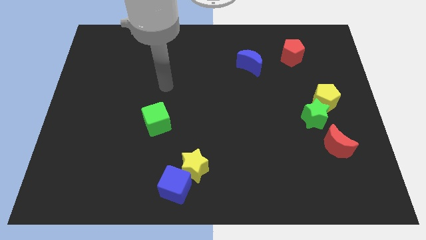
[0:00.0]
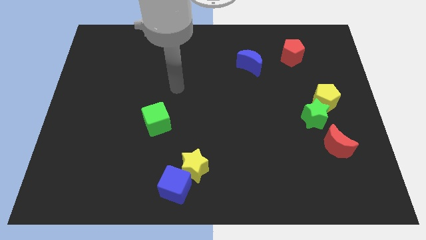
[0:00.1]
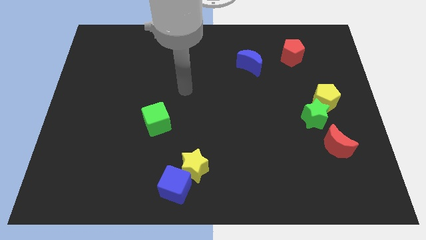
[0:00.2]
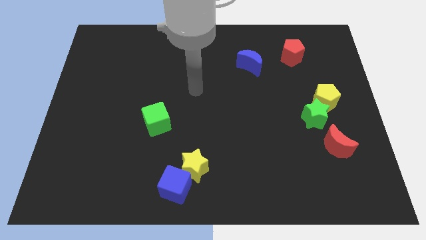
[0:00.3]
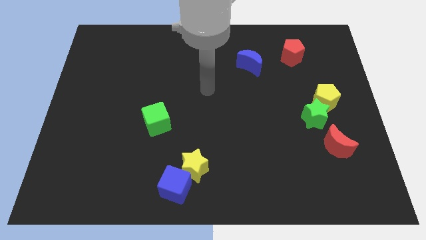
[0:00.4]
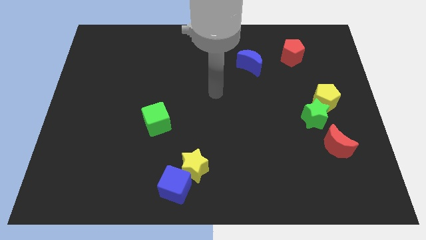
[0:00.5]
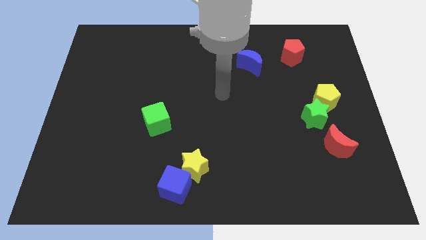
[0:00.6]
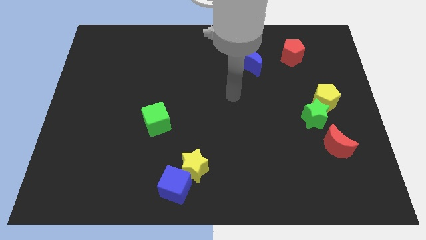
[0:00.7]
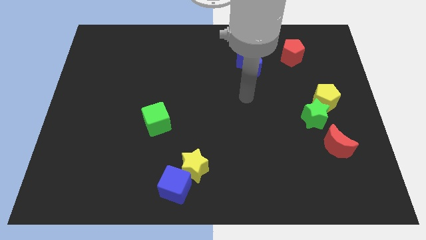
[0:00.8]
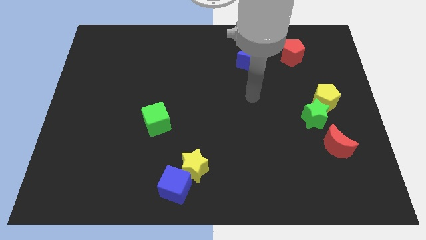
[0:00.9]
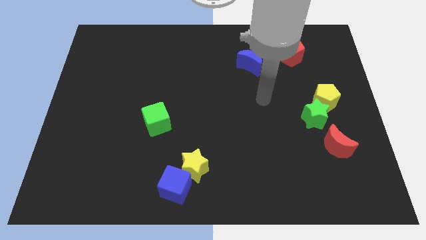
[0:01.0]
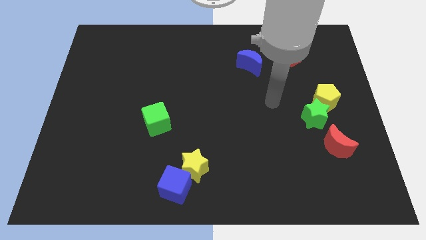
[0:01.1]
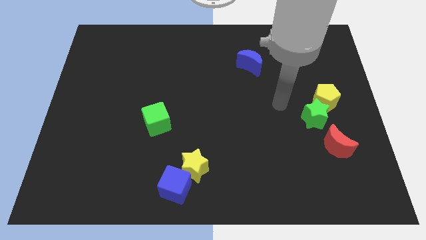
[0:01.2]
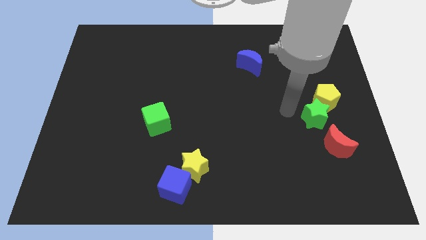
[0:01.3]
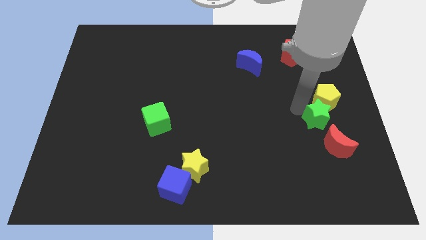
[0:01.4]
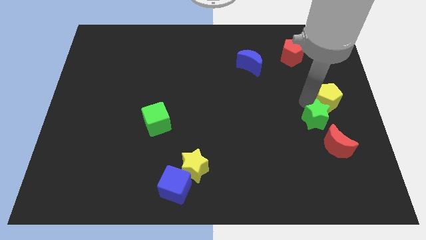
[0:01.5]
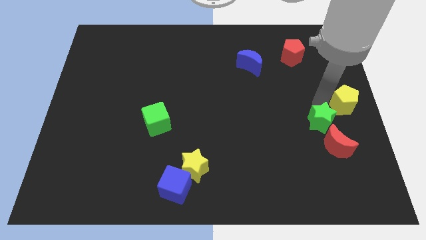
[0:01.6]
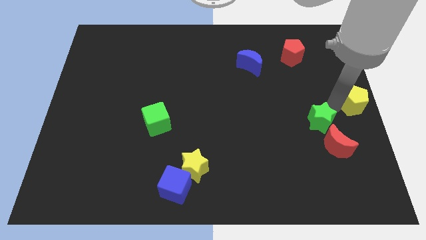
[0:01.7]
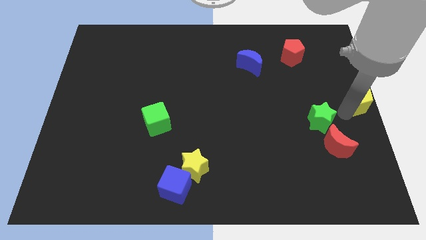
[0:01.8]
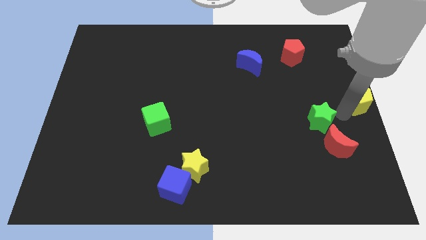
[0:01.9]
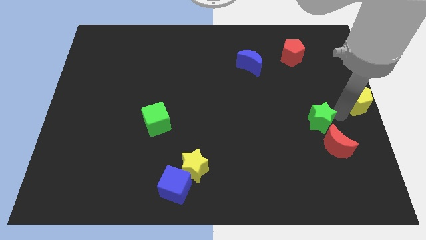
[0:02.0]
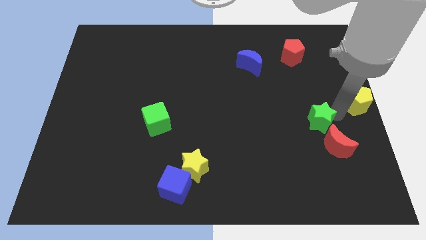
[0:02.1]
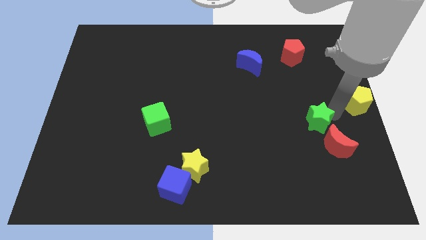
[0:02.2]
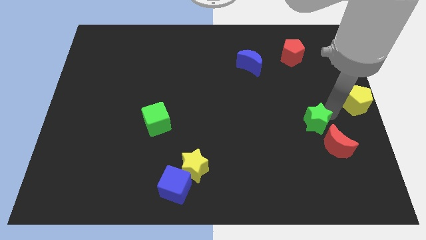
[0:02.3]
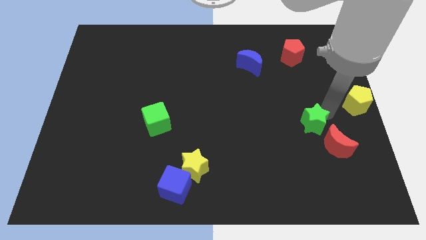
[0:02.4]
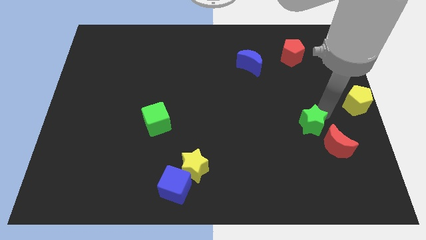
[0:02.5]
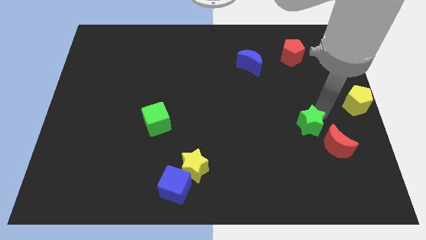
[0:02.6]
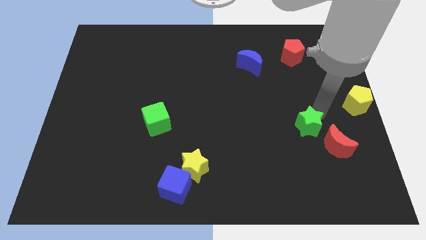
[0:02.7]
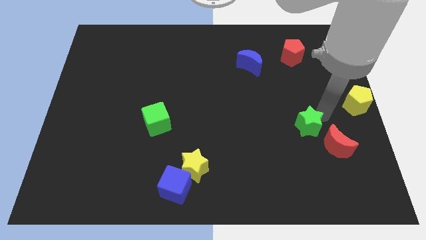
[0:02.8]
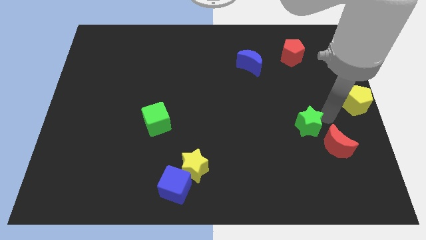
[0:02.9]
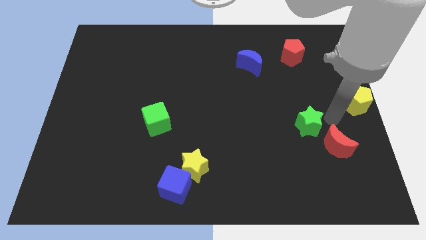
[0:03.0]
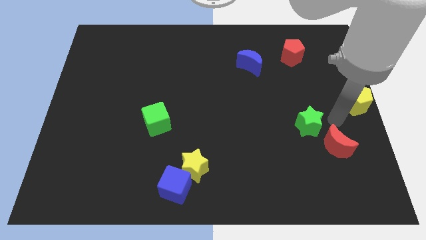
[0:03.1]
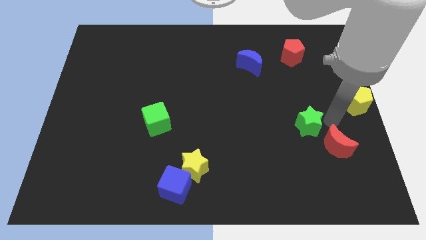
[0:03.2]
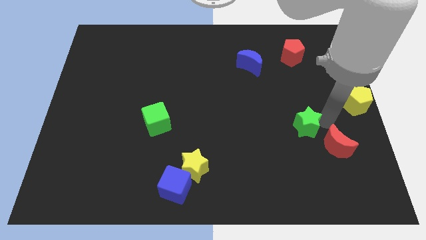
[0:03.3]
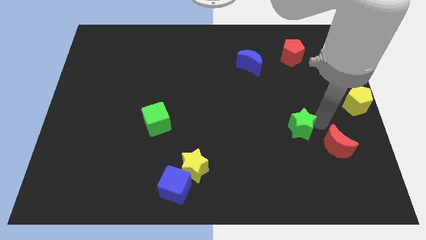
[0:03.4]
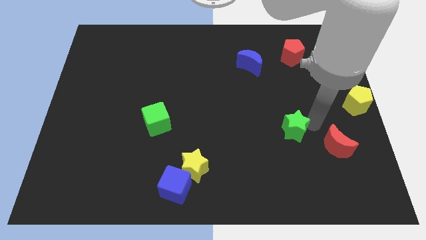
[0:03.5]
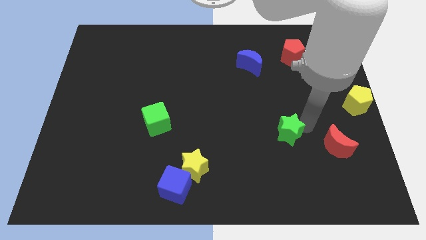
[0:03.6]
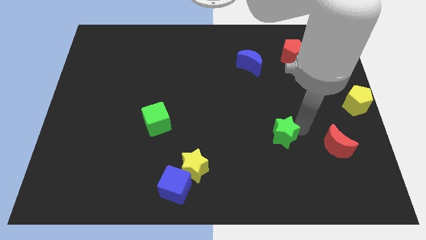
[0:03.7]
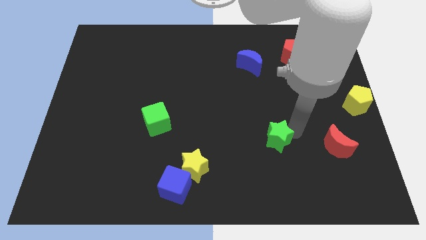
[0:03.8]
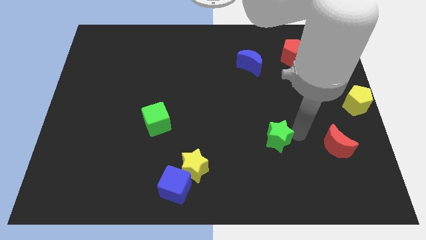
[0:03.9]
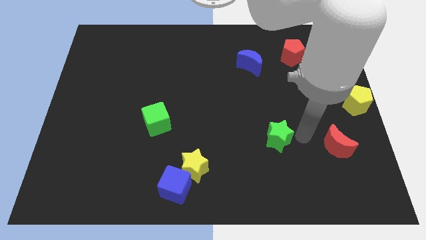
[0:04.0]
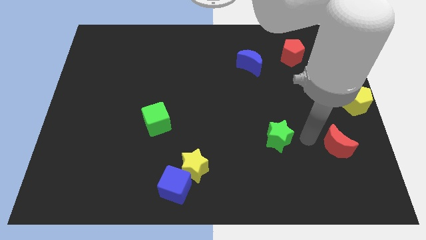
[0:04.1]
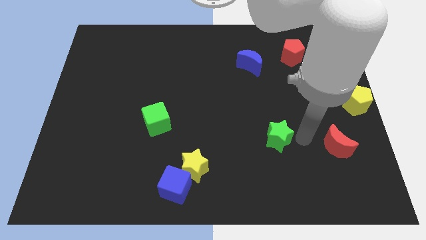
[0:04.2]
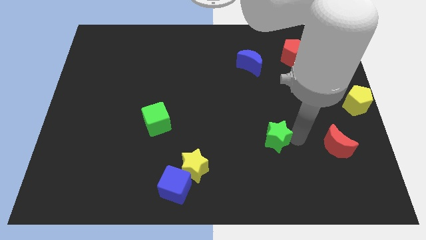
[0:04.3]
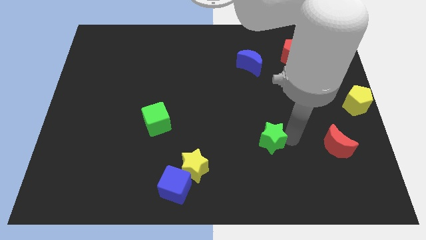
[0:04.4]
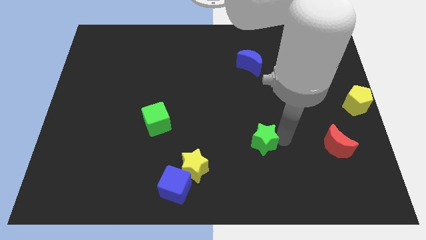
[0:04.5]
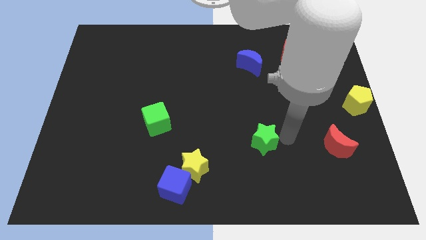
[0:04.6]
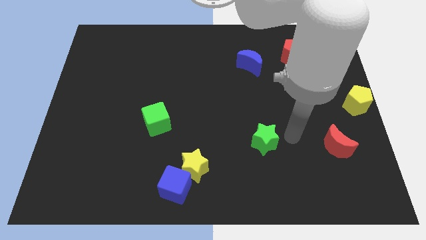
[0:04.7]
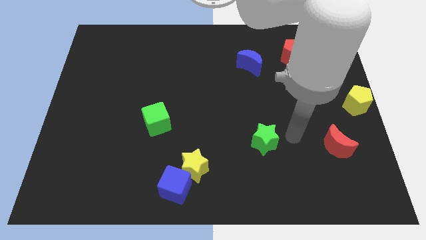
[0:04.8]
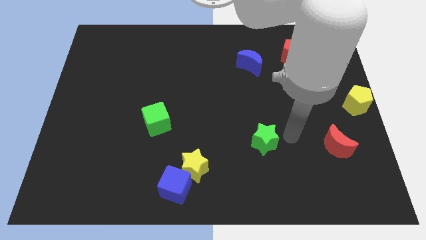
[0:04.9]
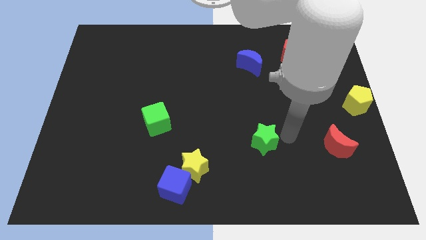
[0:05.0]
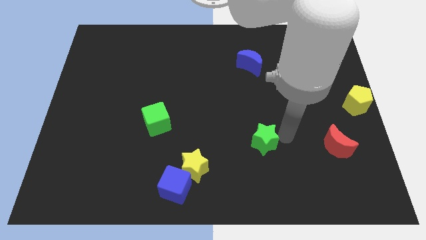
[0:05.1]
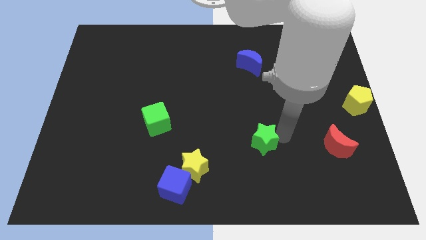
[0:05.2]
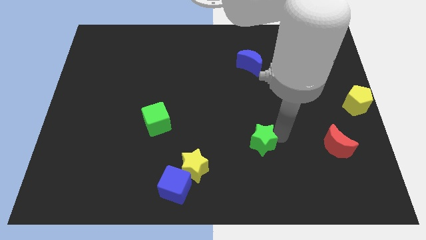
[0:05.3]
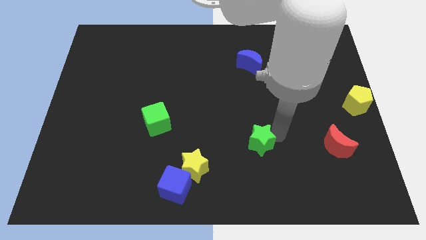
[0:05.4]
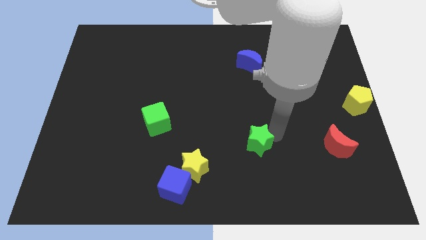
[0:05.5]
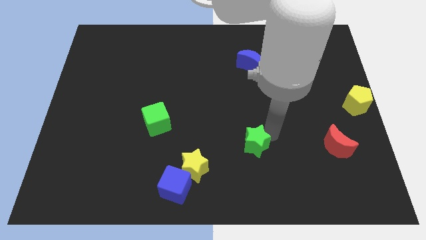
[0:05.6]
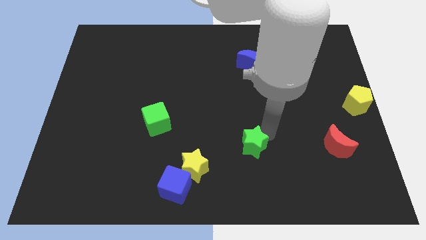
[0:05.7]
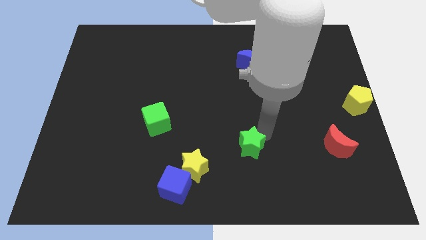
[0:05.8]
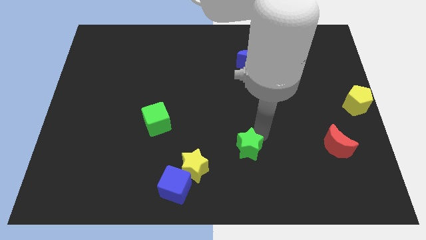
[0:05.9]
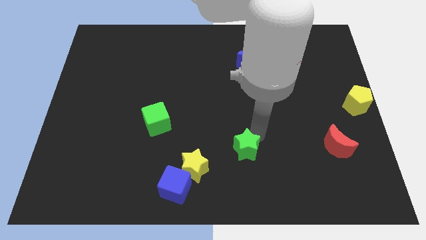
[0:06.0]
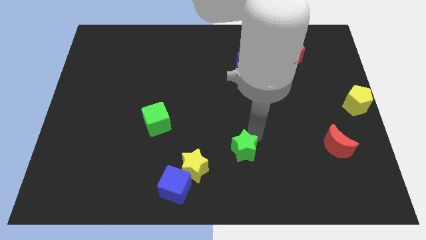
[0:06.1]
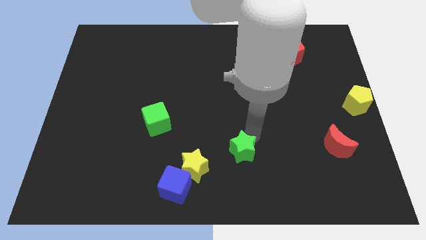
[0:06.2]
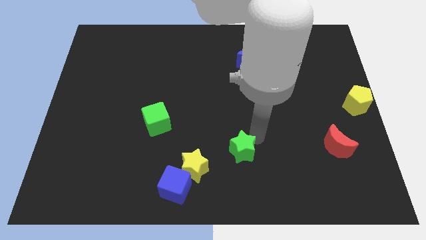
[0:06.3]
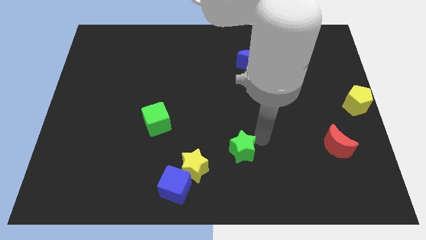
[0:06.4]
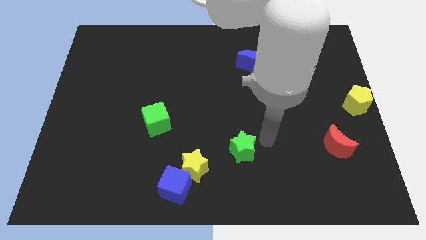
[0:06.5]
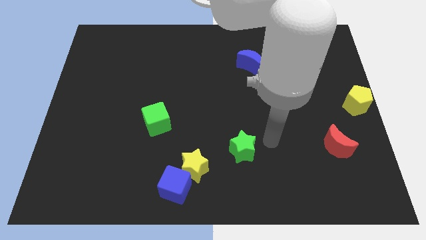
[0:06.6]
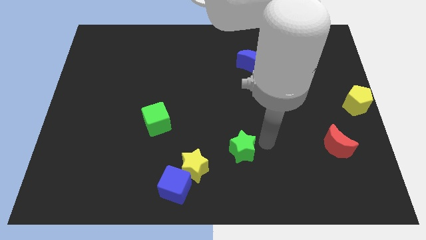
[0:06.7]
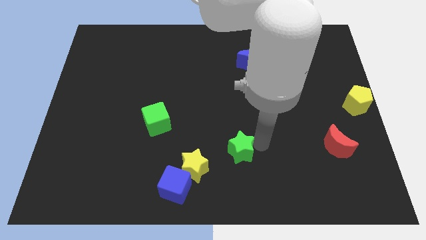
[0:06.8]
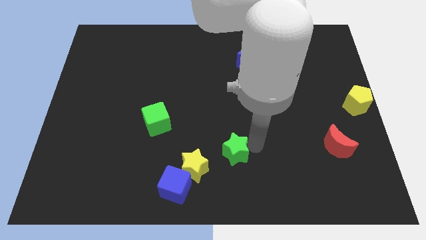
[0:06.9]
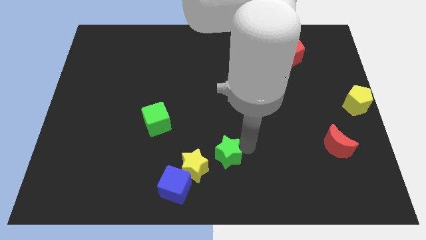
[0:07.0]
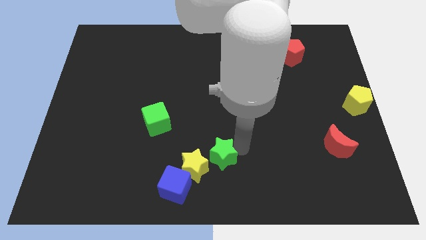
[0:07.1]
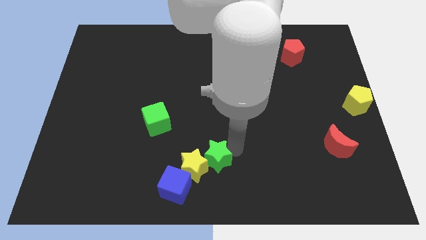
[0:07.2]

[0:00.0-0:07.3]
move the green star close to the yellow star

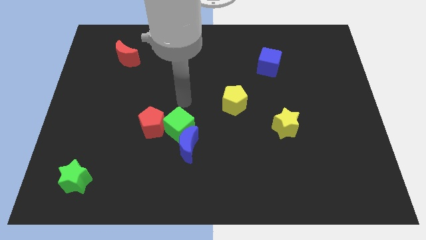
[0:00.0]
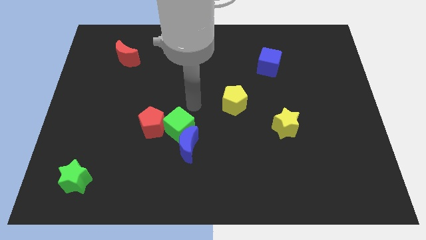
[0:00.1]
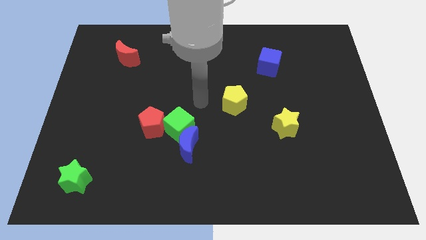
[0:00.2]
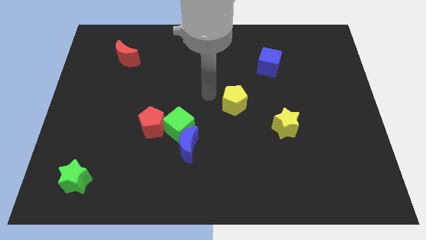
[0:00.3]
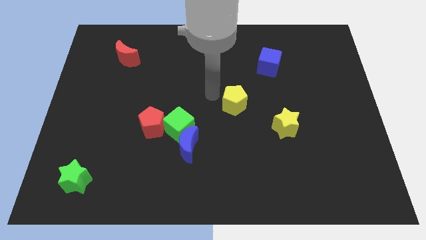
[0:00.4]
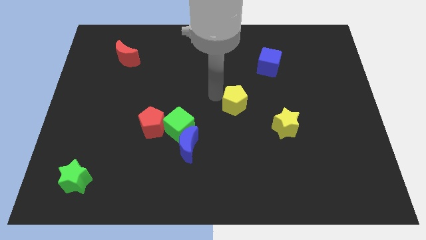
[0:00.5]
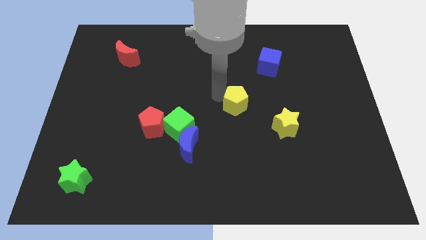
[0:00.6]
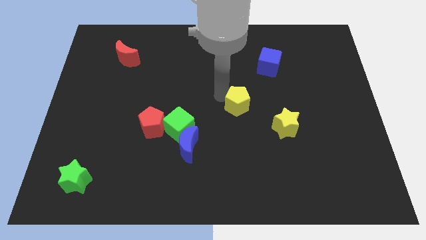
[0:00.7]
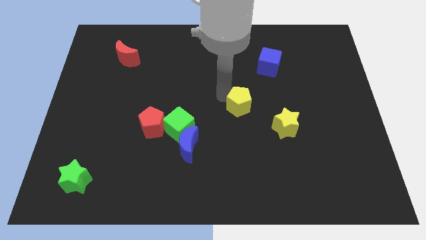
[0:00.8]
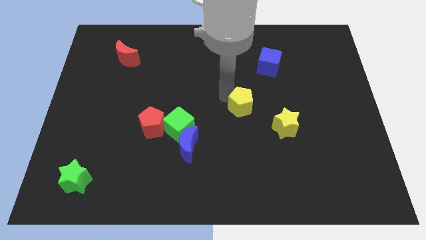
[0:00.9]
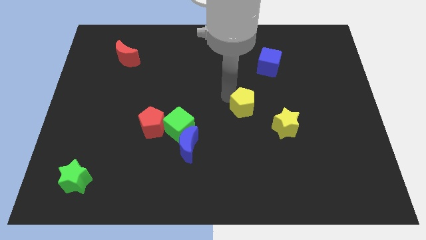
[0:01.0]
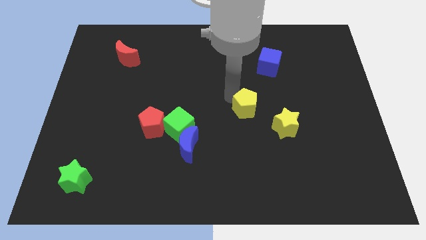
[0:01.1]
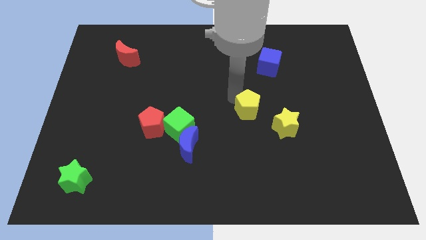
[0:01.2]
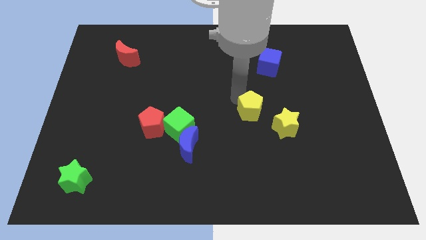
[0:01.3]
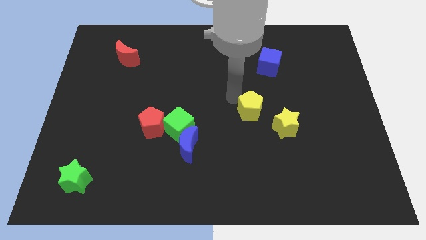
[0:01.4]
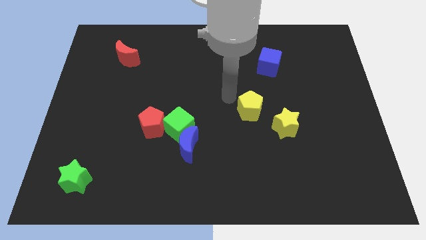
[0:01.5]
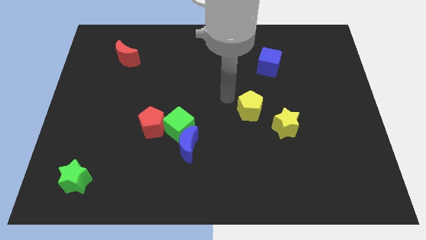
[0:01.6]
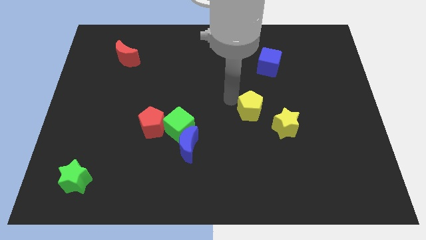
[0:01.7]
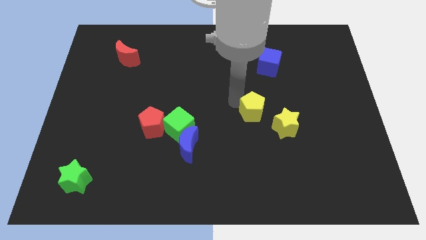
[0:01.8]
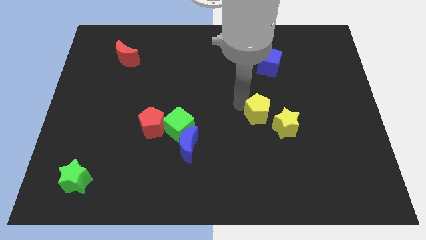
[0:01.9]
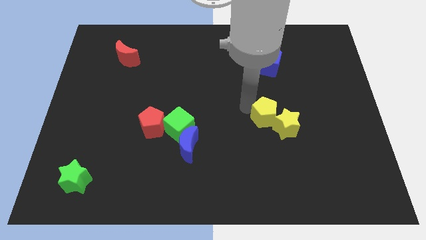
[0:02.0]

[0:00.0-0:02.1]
push the yellow pentagon towards the yellow star
